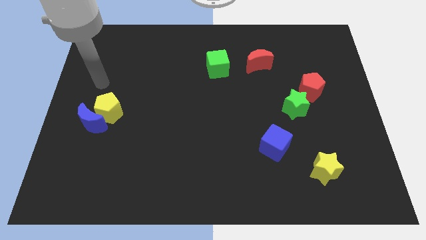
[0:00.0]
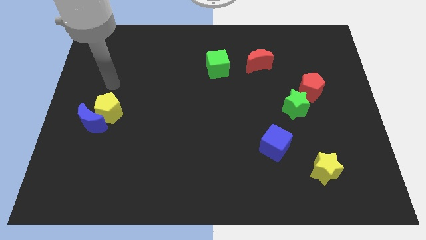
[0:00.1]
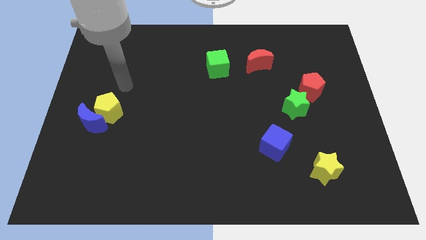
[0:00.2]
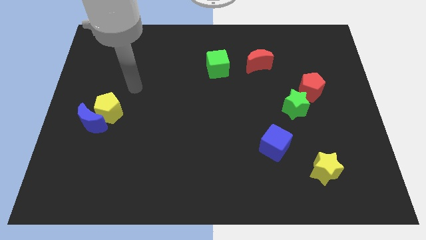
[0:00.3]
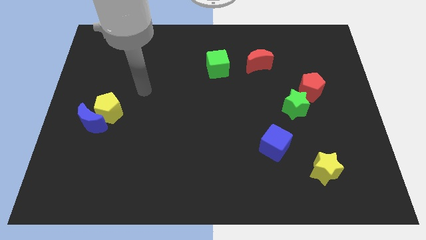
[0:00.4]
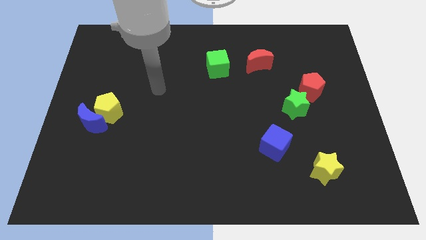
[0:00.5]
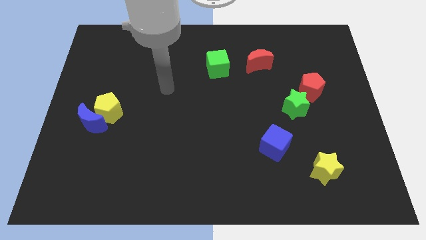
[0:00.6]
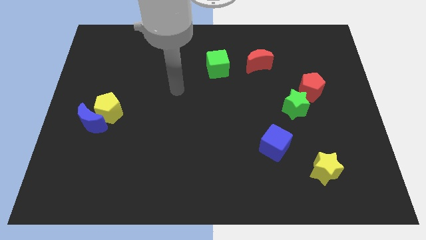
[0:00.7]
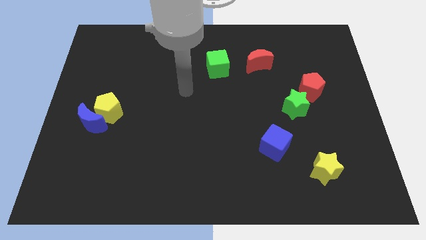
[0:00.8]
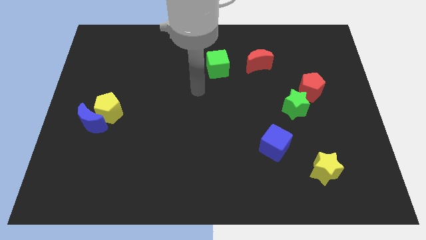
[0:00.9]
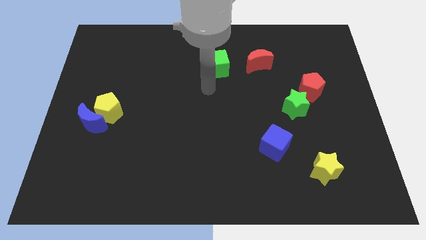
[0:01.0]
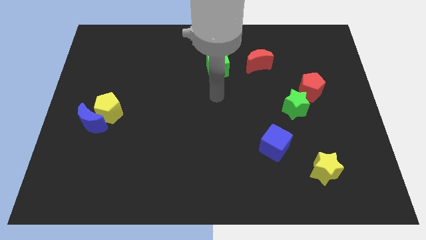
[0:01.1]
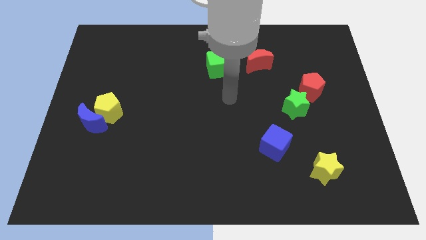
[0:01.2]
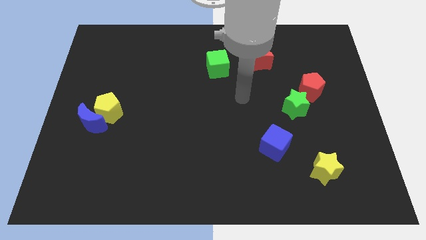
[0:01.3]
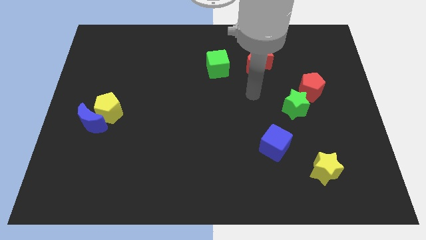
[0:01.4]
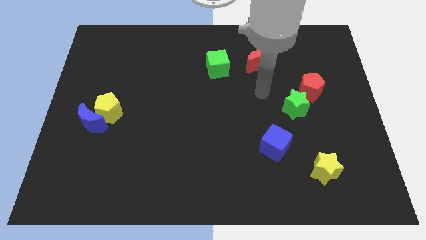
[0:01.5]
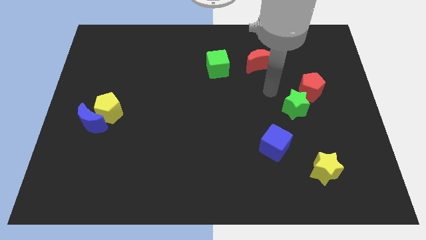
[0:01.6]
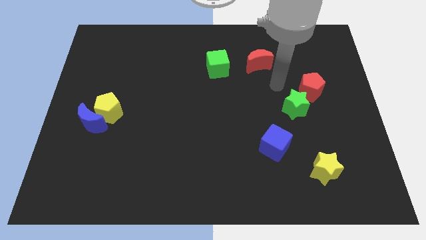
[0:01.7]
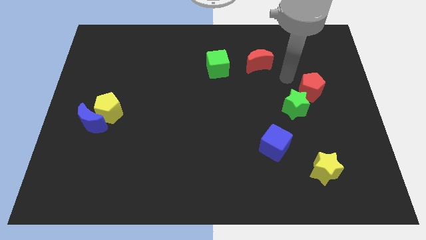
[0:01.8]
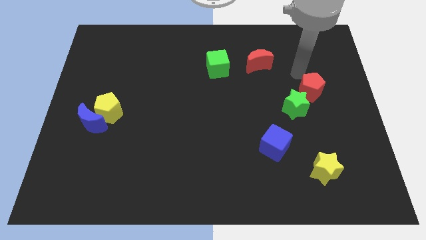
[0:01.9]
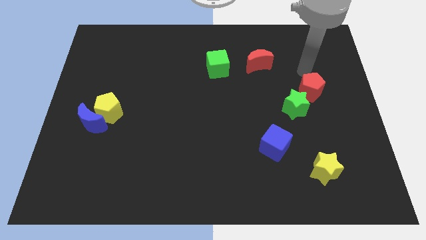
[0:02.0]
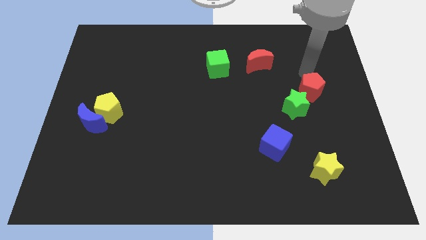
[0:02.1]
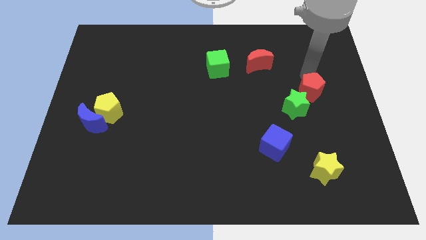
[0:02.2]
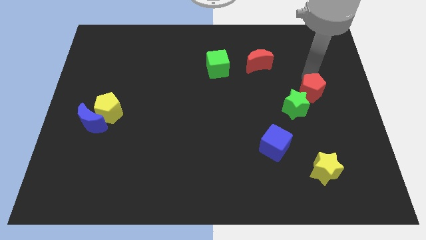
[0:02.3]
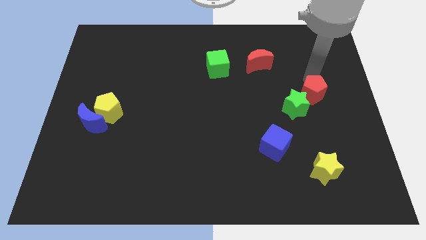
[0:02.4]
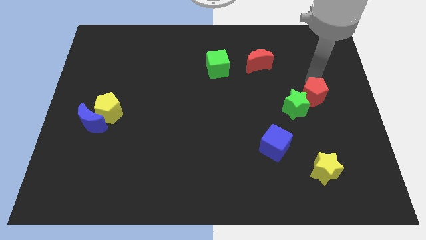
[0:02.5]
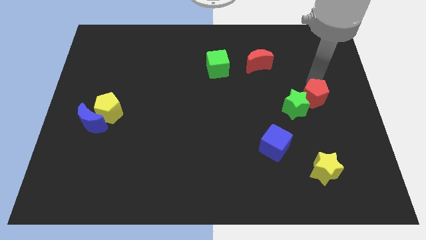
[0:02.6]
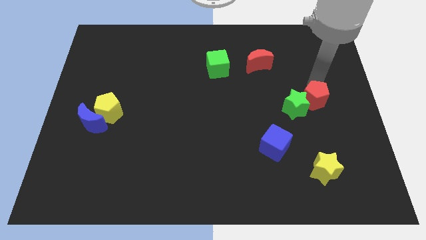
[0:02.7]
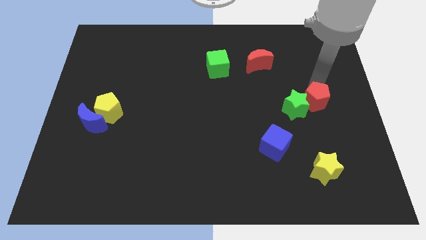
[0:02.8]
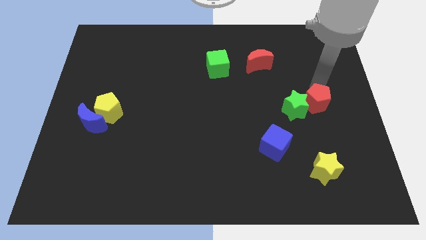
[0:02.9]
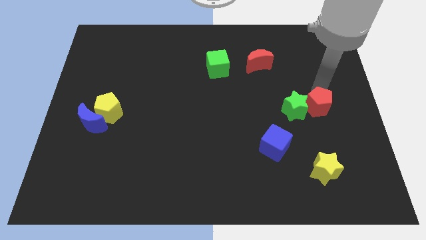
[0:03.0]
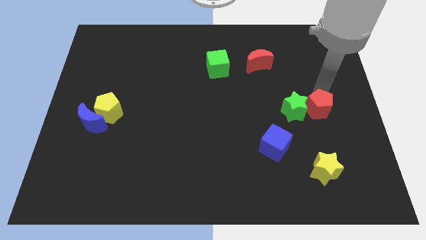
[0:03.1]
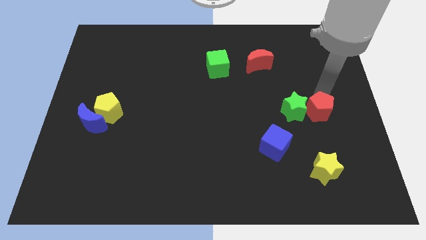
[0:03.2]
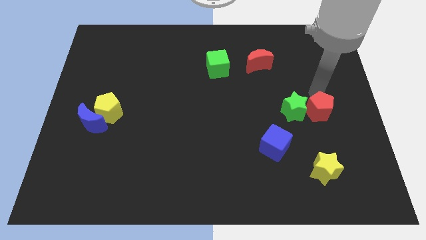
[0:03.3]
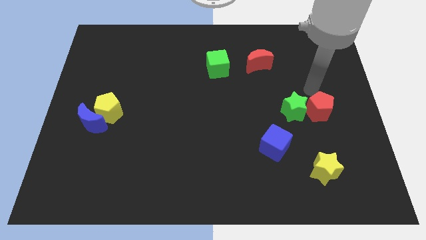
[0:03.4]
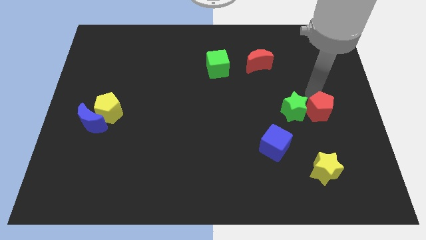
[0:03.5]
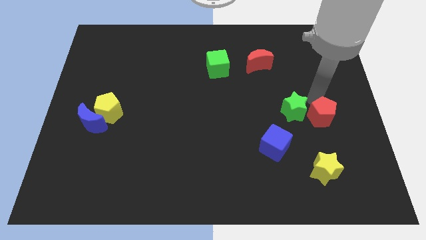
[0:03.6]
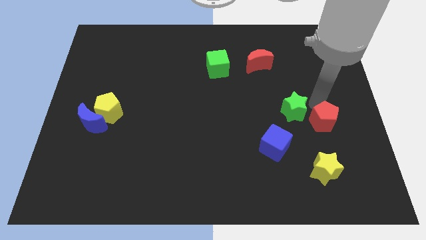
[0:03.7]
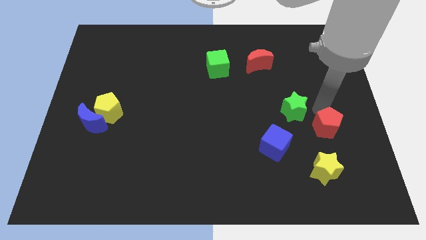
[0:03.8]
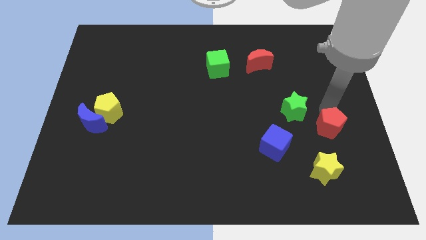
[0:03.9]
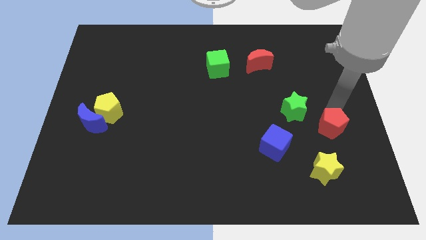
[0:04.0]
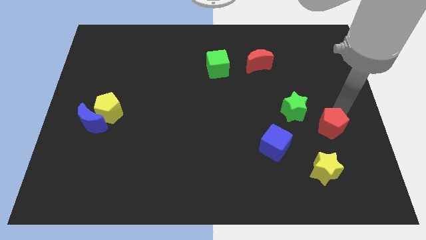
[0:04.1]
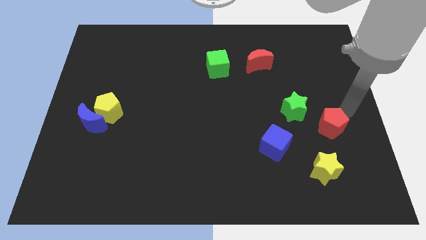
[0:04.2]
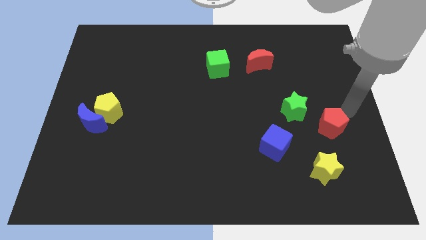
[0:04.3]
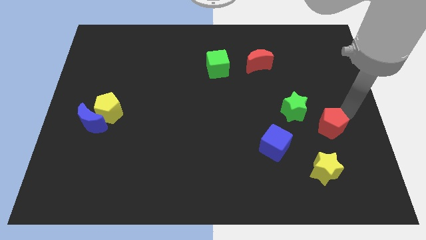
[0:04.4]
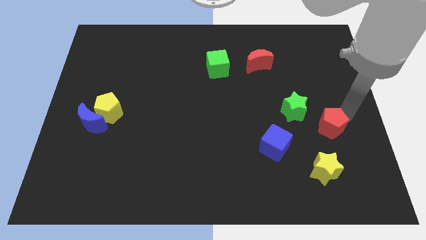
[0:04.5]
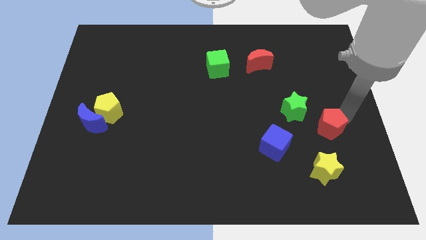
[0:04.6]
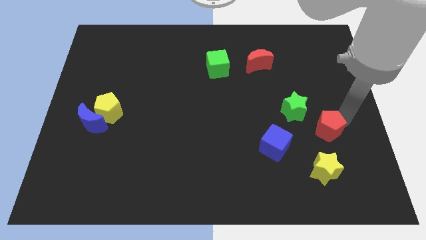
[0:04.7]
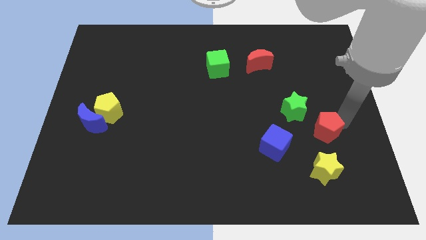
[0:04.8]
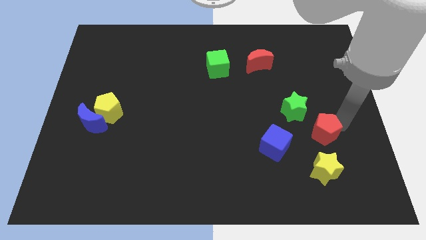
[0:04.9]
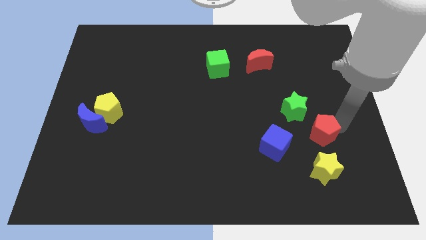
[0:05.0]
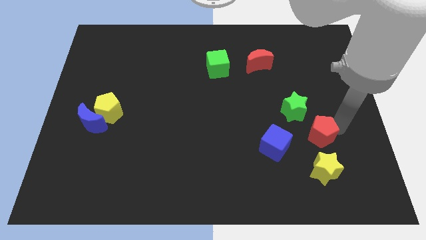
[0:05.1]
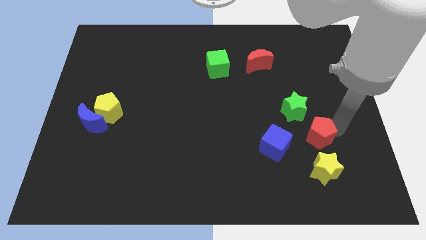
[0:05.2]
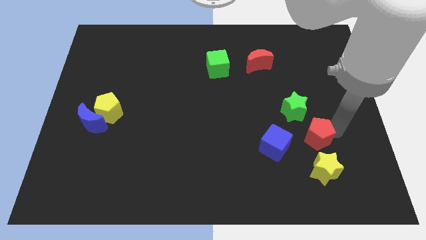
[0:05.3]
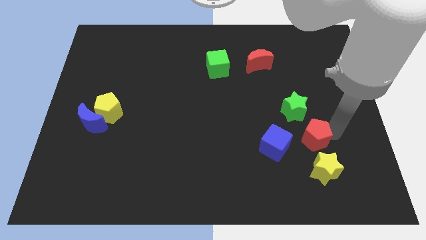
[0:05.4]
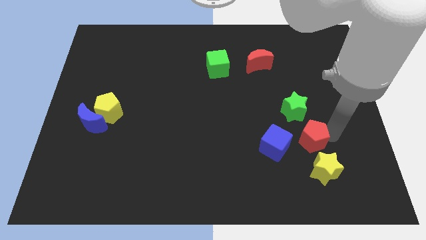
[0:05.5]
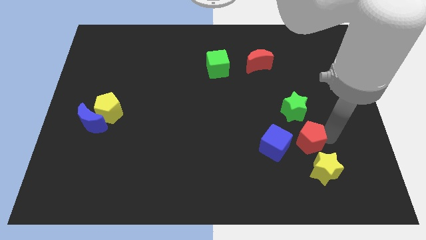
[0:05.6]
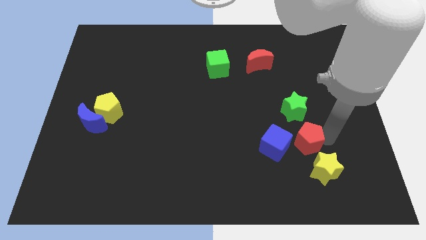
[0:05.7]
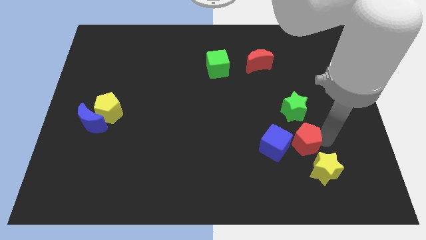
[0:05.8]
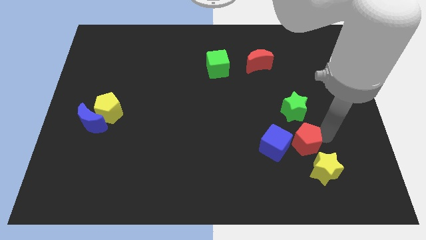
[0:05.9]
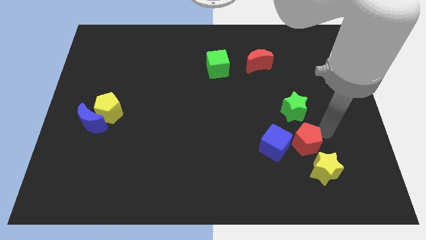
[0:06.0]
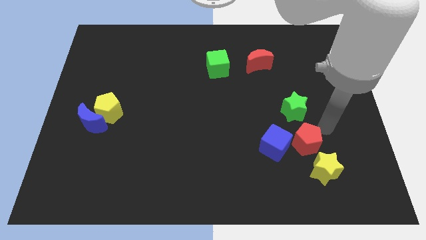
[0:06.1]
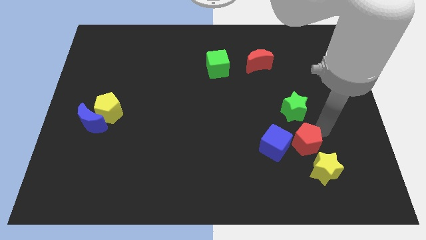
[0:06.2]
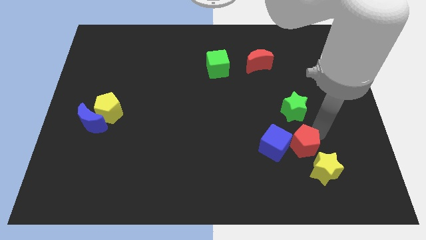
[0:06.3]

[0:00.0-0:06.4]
slide the red pentagon diagonally down and to the right of the blue cube
